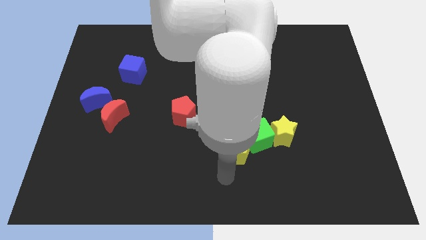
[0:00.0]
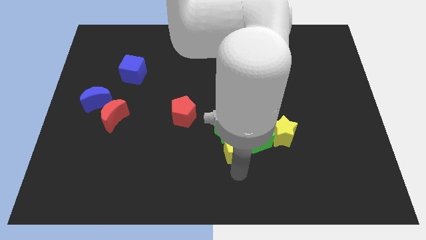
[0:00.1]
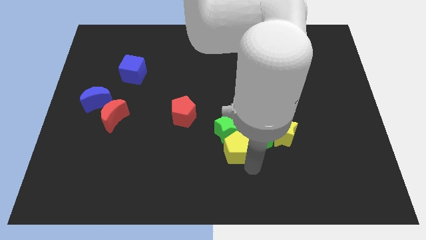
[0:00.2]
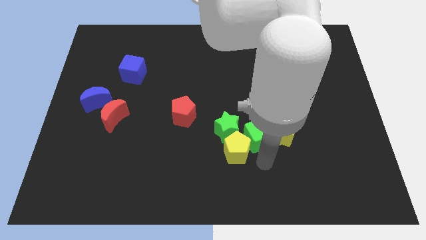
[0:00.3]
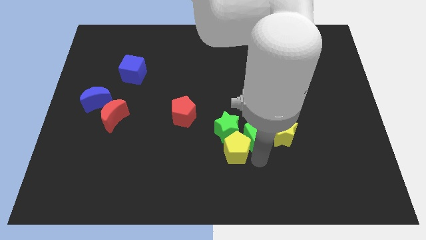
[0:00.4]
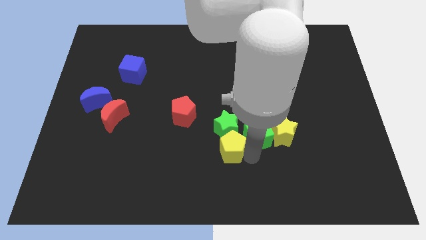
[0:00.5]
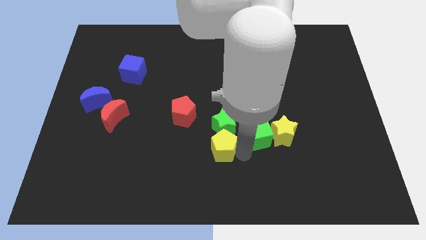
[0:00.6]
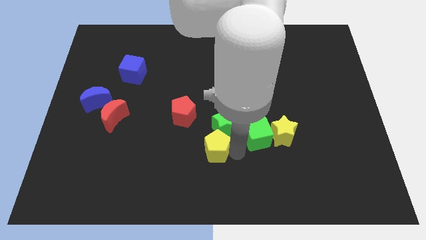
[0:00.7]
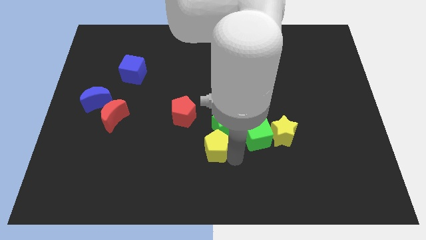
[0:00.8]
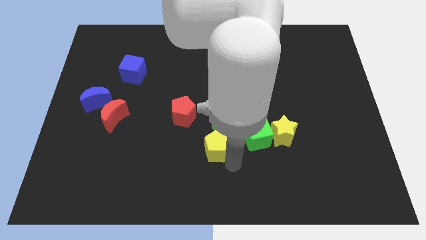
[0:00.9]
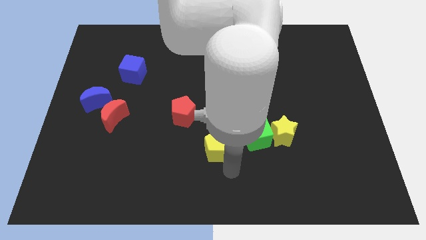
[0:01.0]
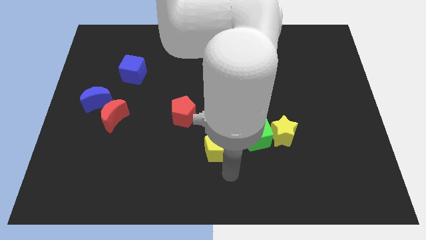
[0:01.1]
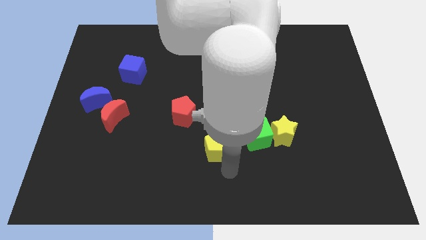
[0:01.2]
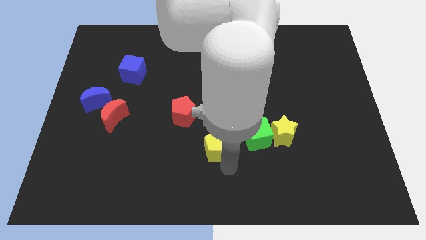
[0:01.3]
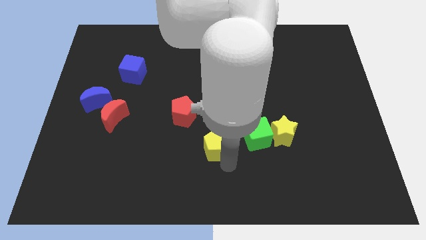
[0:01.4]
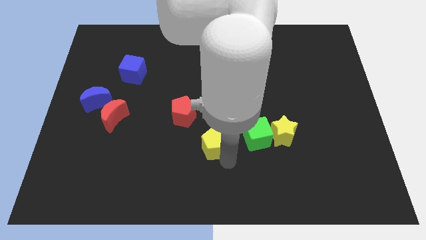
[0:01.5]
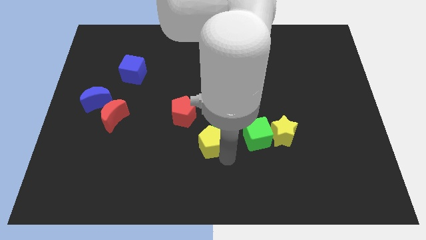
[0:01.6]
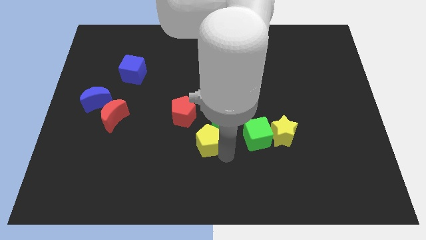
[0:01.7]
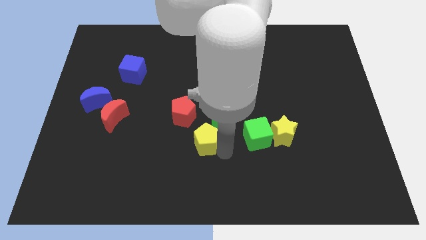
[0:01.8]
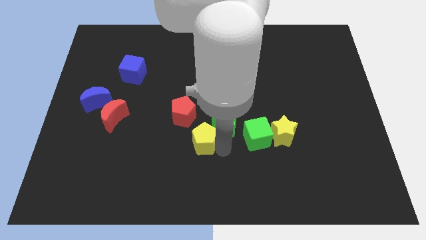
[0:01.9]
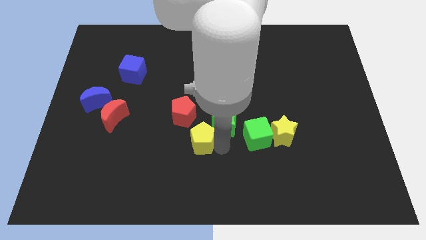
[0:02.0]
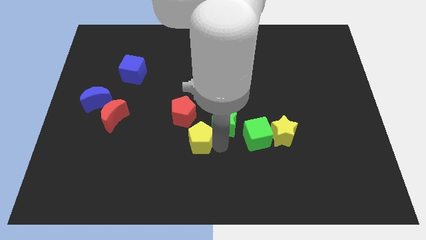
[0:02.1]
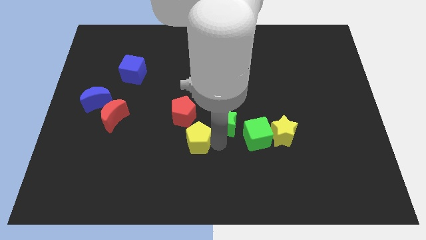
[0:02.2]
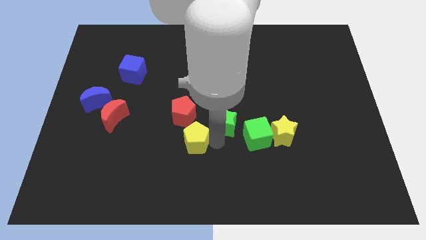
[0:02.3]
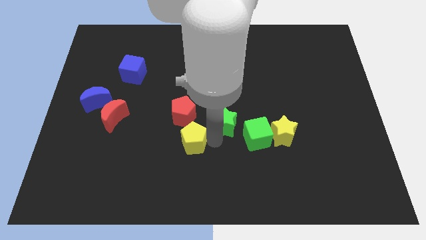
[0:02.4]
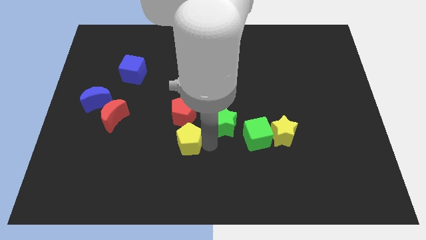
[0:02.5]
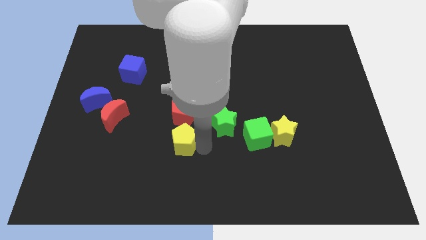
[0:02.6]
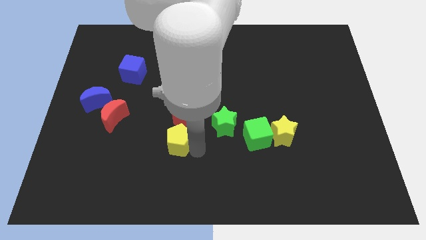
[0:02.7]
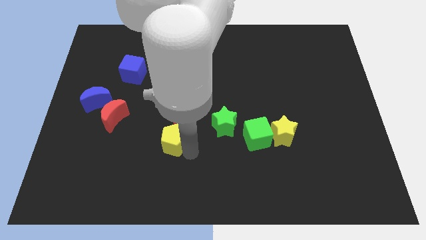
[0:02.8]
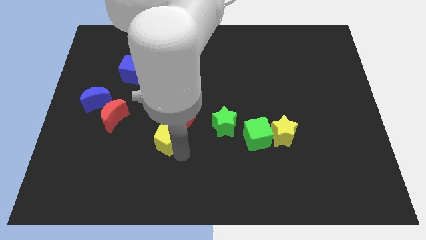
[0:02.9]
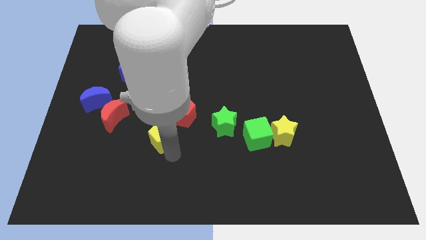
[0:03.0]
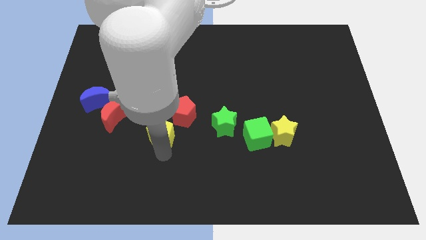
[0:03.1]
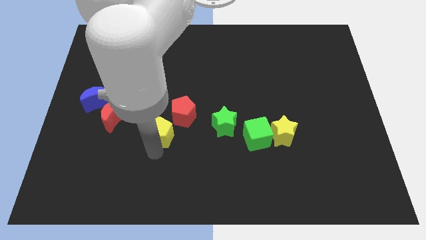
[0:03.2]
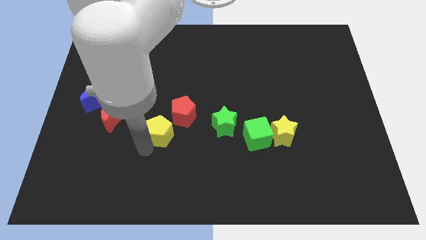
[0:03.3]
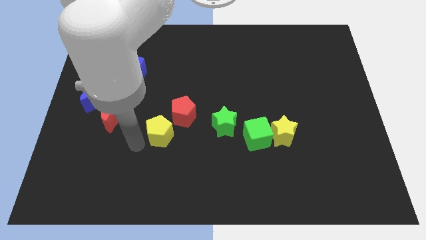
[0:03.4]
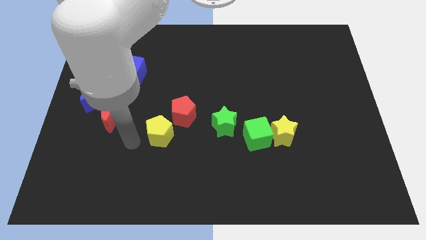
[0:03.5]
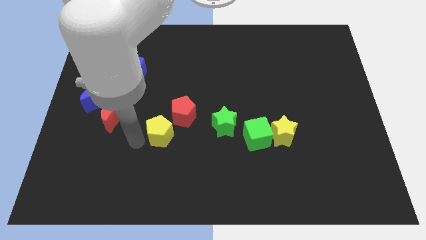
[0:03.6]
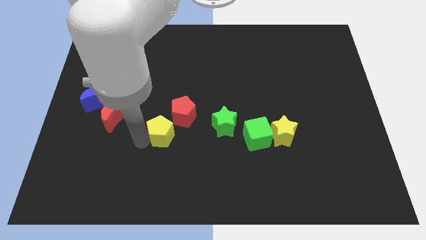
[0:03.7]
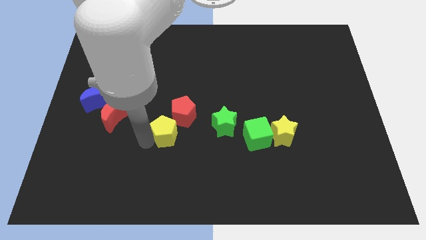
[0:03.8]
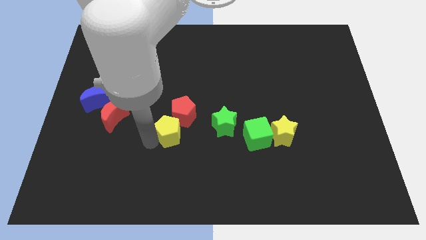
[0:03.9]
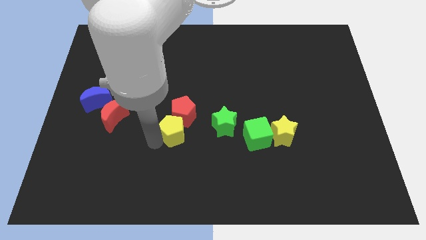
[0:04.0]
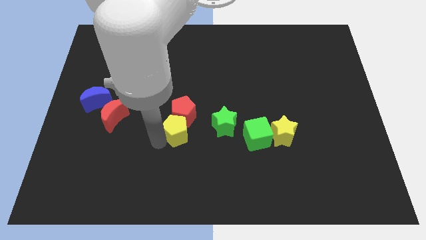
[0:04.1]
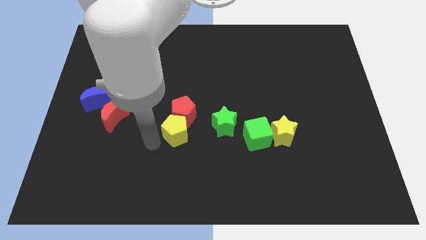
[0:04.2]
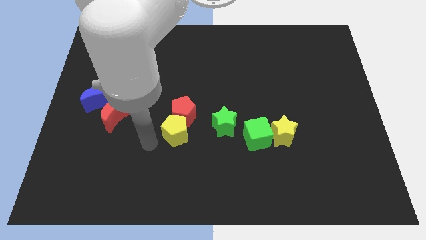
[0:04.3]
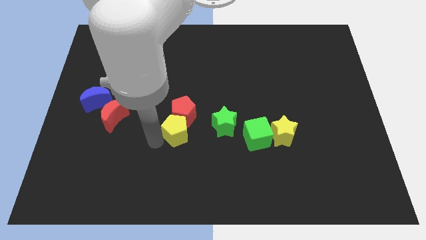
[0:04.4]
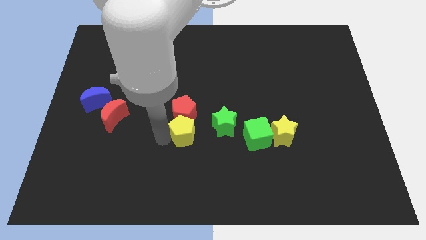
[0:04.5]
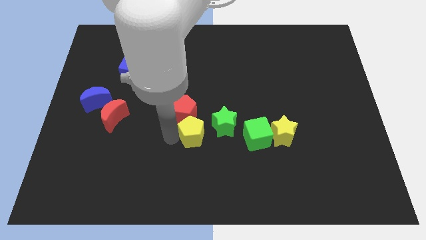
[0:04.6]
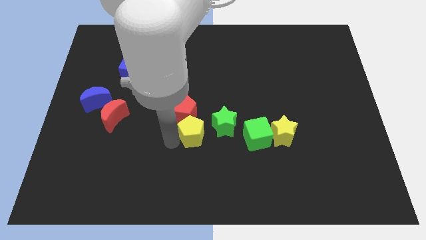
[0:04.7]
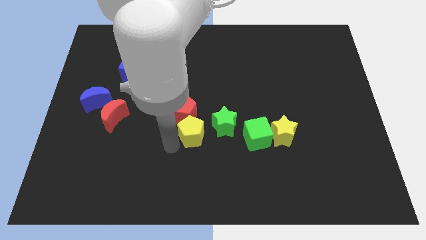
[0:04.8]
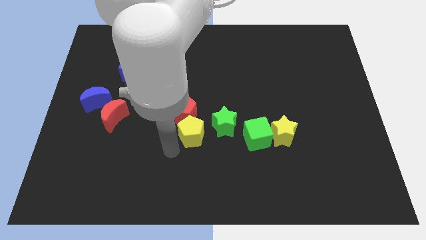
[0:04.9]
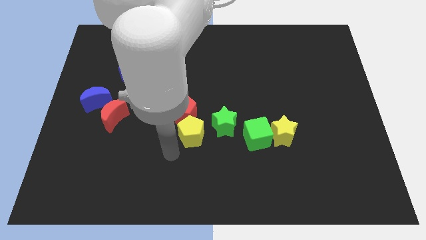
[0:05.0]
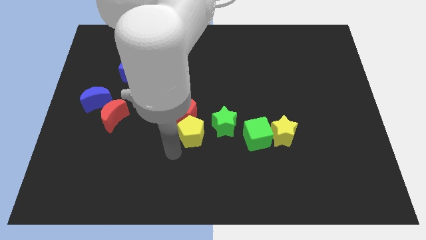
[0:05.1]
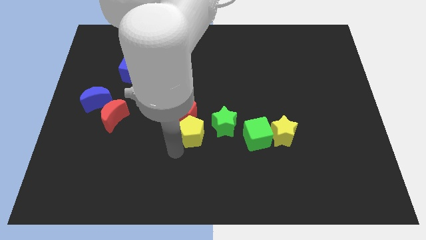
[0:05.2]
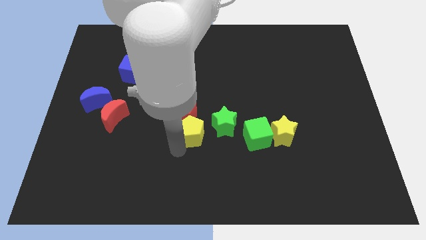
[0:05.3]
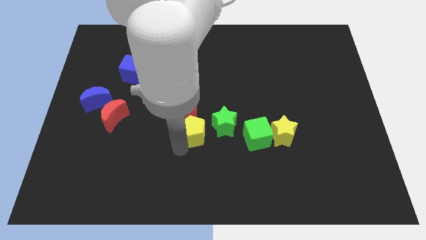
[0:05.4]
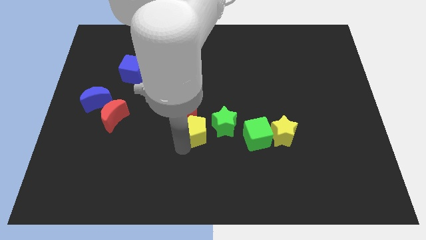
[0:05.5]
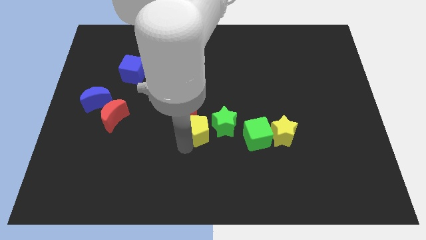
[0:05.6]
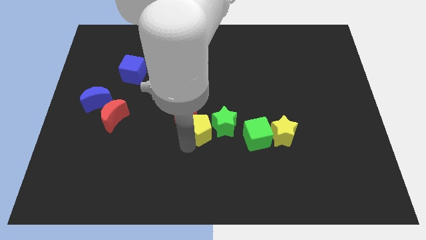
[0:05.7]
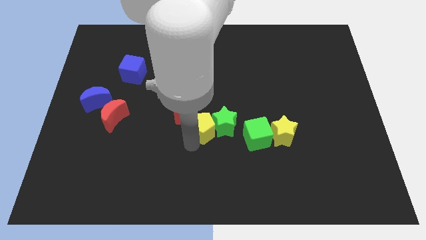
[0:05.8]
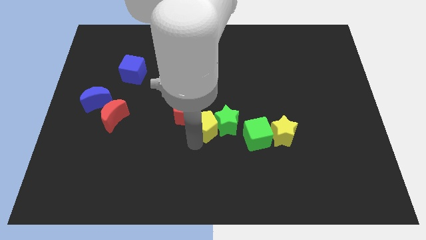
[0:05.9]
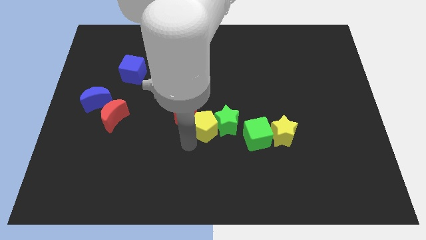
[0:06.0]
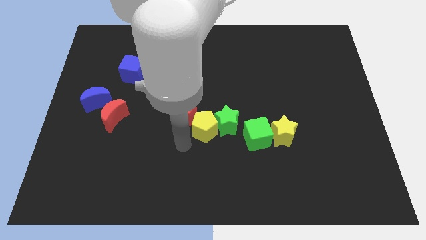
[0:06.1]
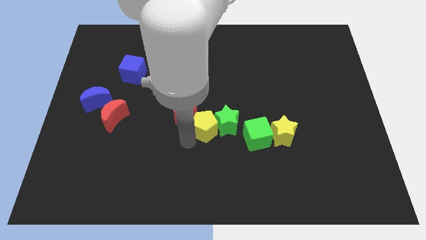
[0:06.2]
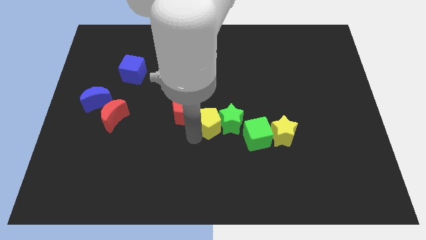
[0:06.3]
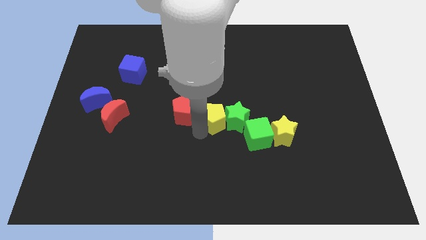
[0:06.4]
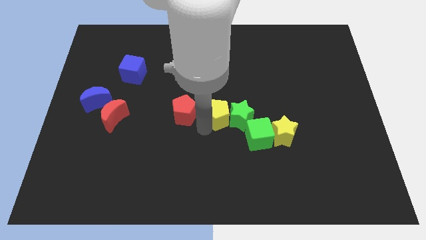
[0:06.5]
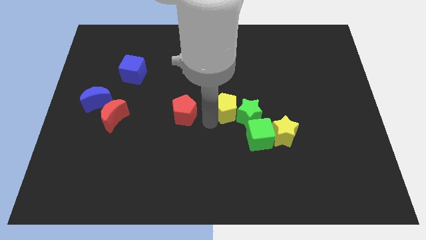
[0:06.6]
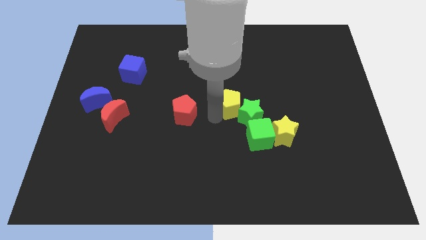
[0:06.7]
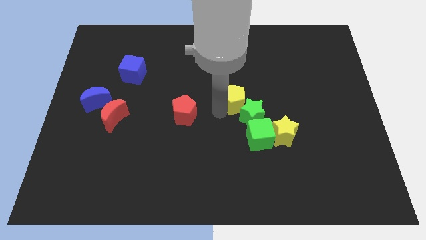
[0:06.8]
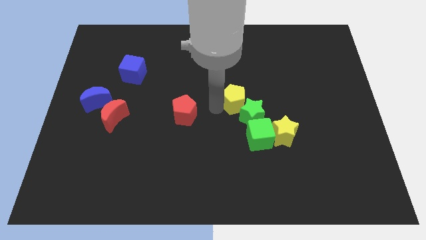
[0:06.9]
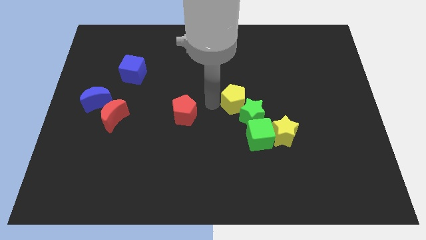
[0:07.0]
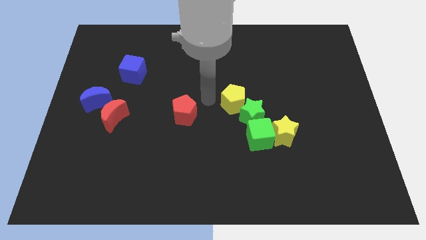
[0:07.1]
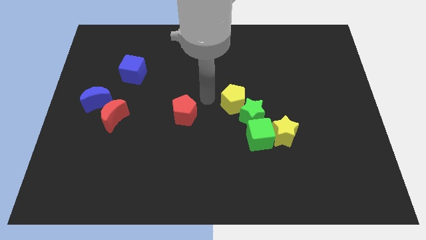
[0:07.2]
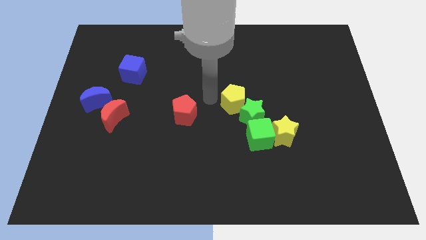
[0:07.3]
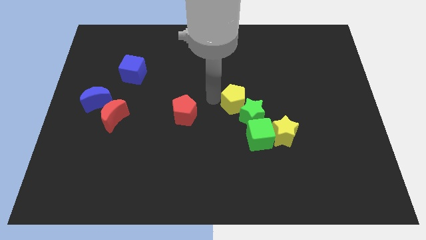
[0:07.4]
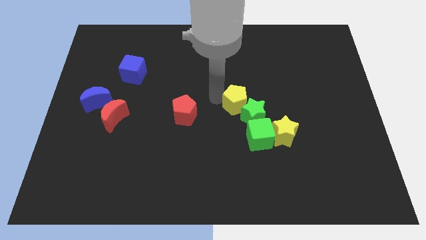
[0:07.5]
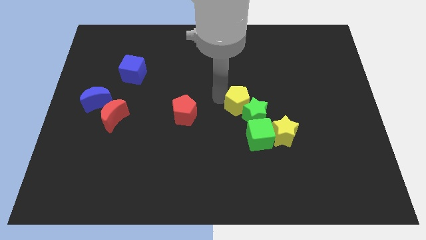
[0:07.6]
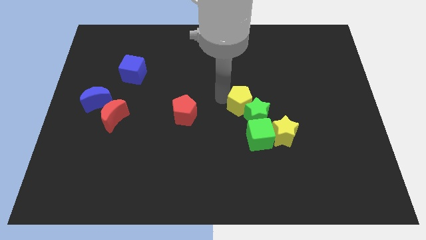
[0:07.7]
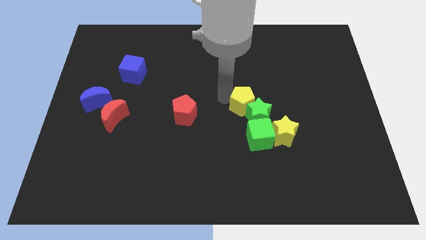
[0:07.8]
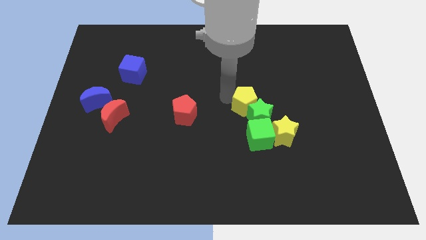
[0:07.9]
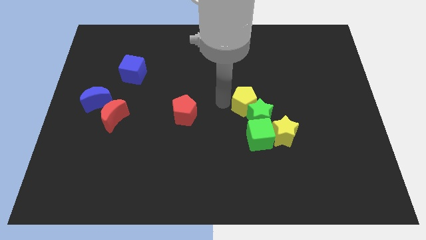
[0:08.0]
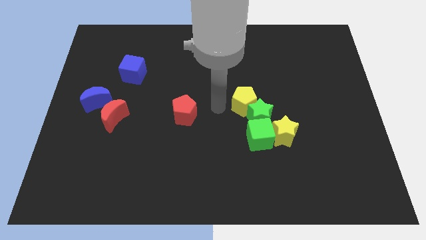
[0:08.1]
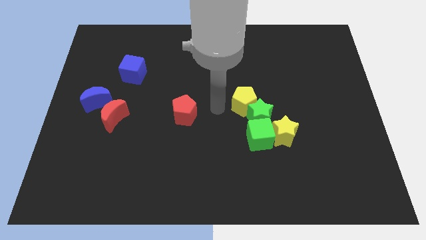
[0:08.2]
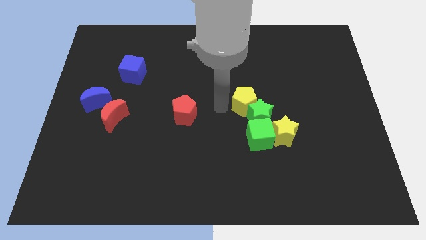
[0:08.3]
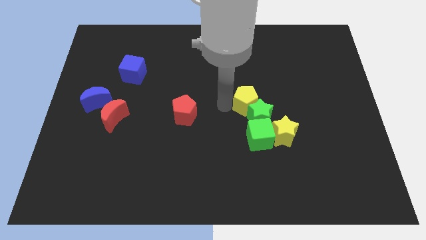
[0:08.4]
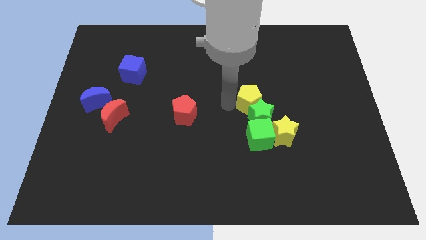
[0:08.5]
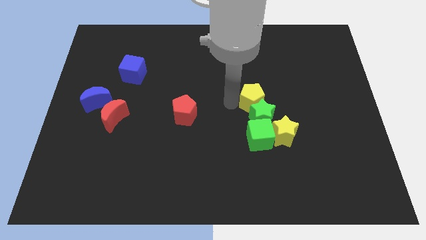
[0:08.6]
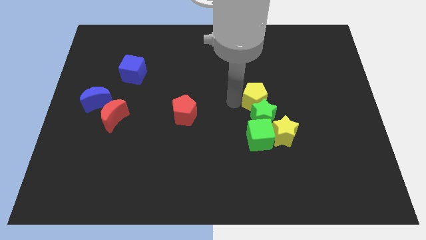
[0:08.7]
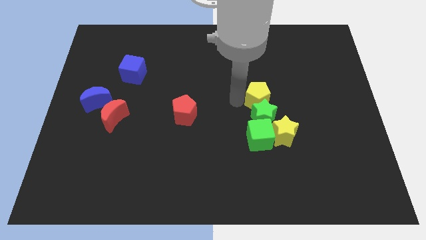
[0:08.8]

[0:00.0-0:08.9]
put the yellow pentagon to the top side of the yellow star
